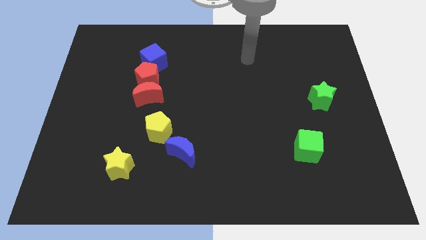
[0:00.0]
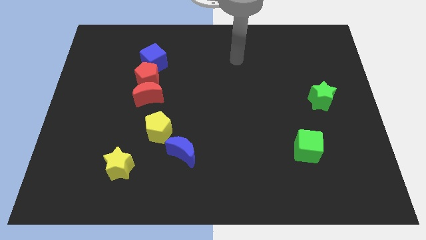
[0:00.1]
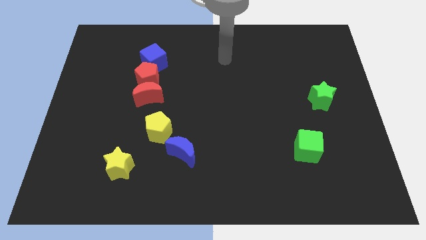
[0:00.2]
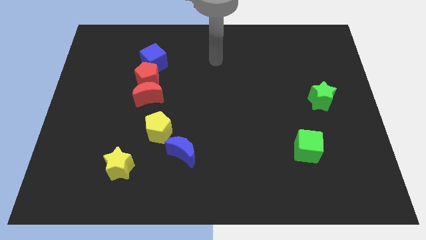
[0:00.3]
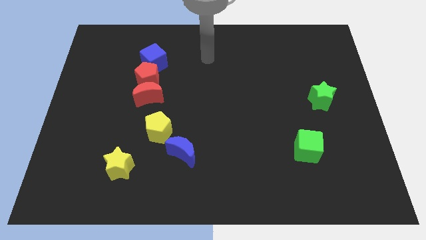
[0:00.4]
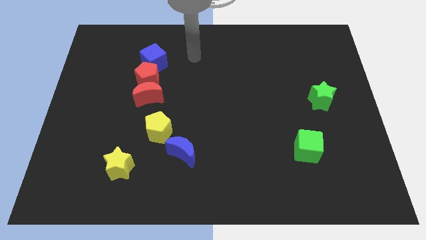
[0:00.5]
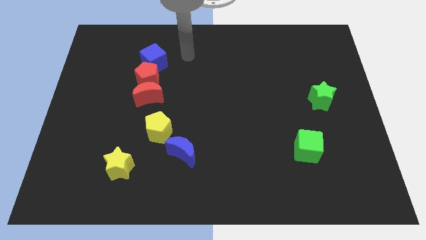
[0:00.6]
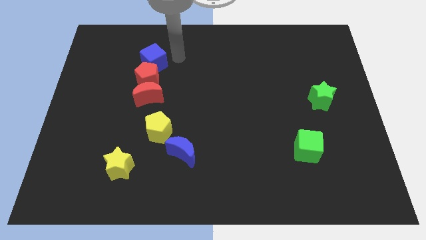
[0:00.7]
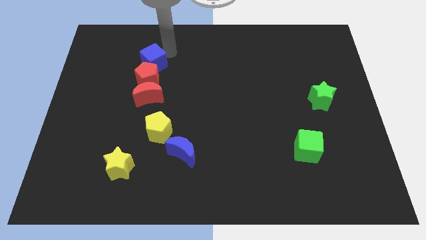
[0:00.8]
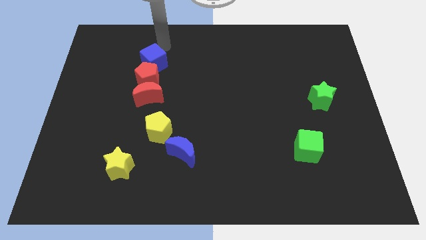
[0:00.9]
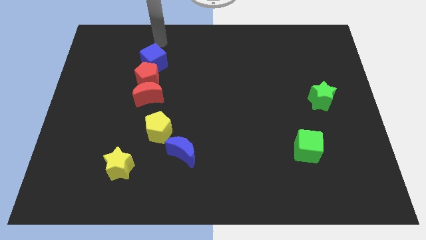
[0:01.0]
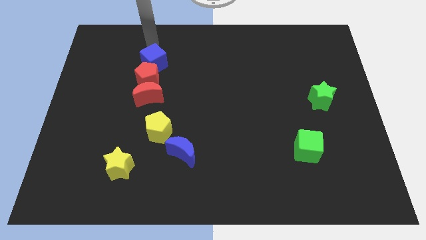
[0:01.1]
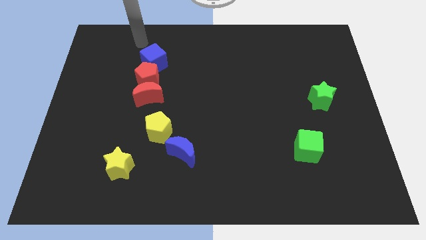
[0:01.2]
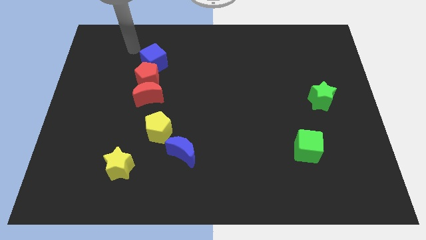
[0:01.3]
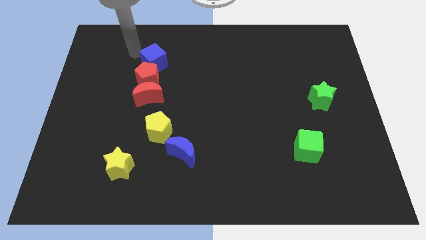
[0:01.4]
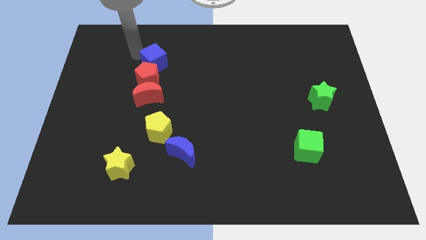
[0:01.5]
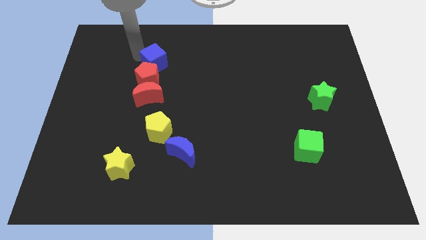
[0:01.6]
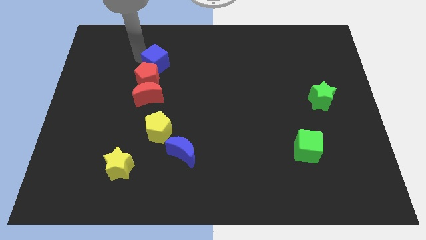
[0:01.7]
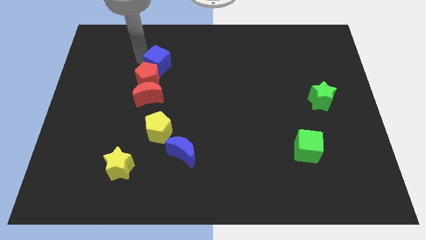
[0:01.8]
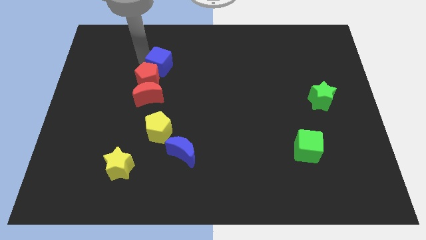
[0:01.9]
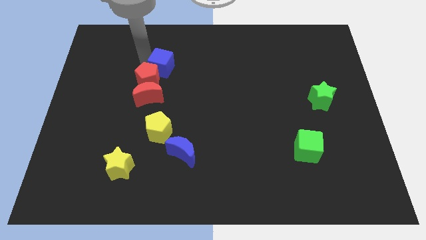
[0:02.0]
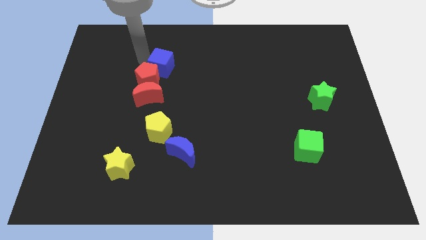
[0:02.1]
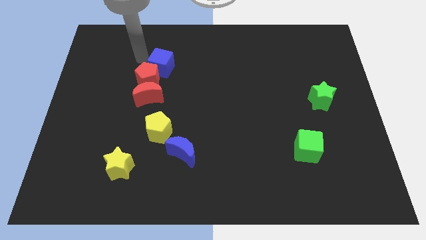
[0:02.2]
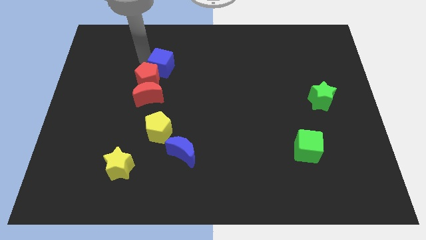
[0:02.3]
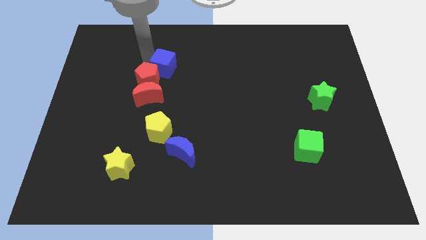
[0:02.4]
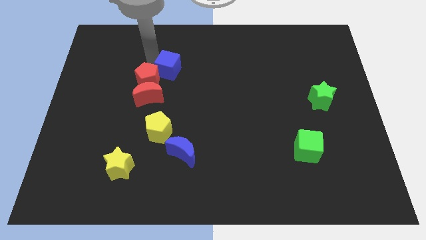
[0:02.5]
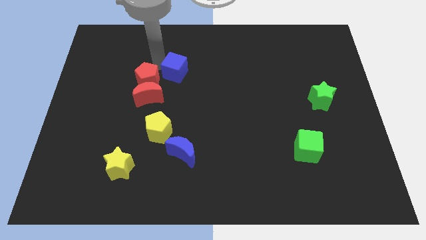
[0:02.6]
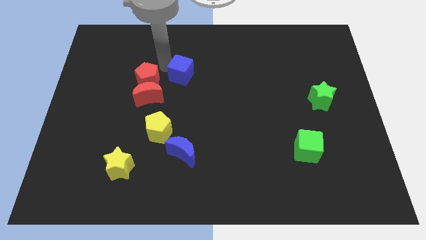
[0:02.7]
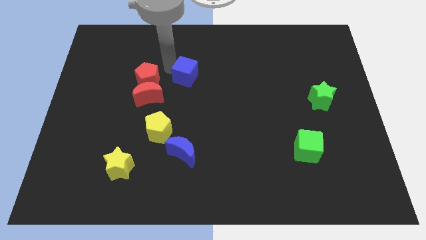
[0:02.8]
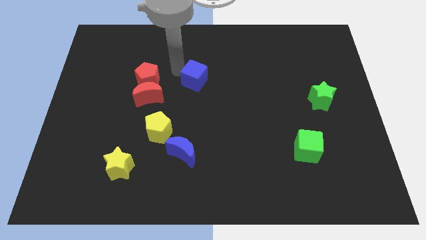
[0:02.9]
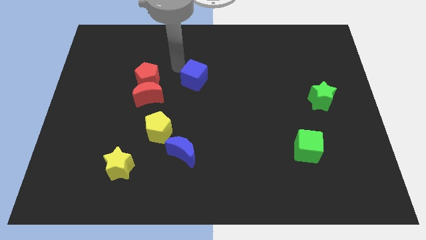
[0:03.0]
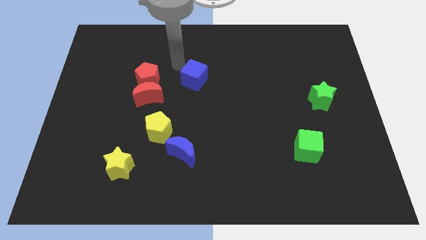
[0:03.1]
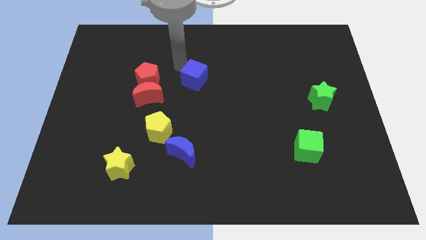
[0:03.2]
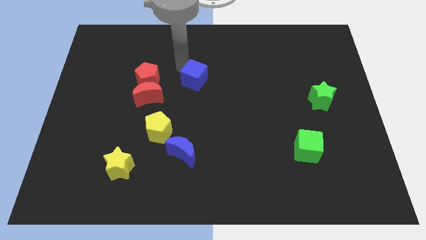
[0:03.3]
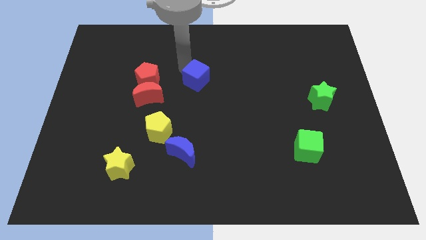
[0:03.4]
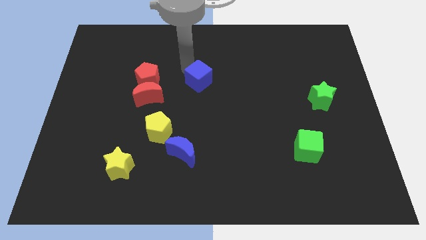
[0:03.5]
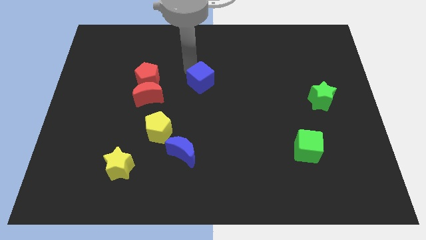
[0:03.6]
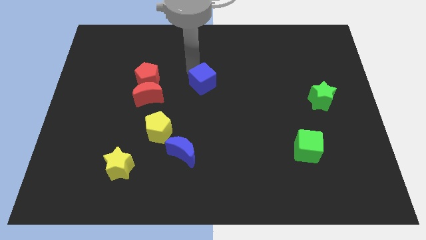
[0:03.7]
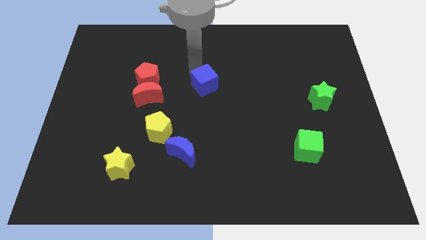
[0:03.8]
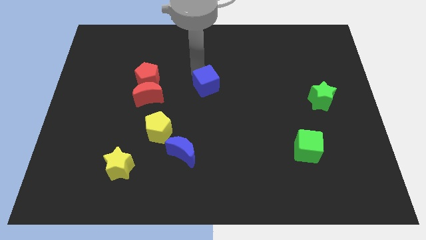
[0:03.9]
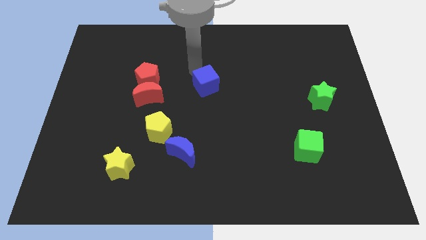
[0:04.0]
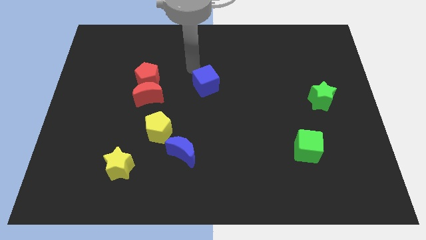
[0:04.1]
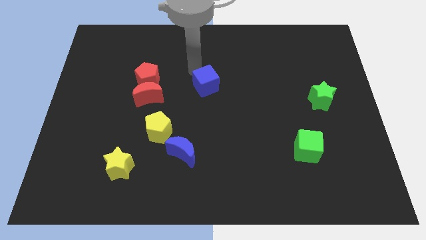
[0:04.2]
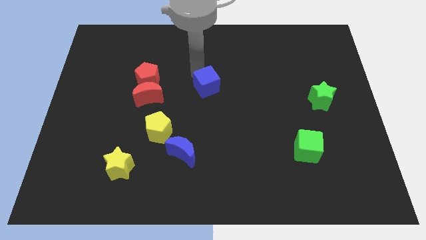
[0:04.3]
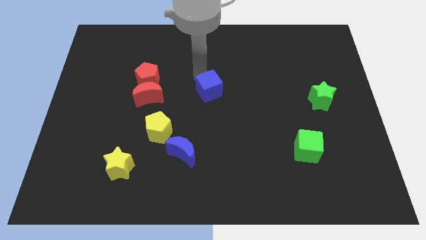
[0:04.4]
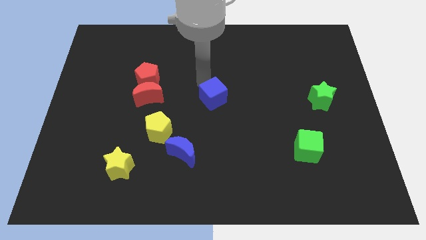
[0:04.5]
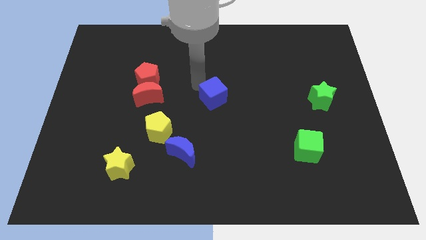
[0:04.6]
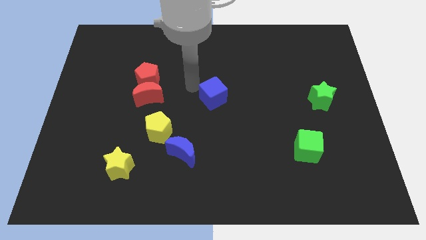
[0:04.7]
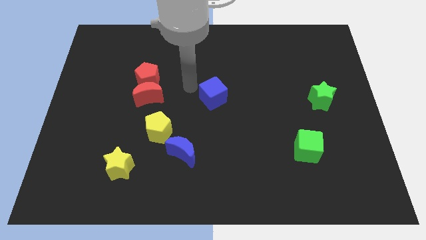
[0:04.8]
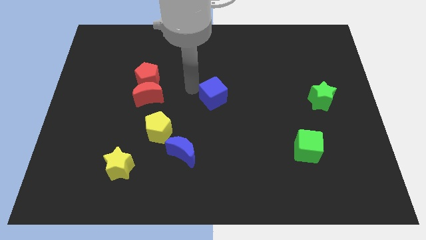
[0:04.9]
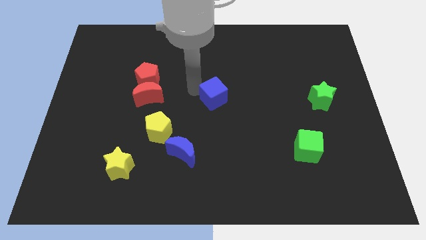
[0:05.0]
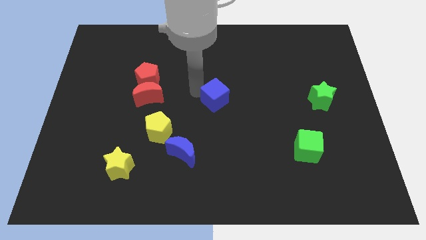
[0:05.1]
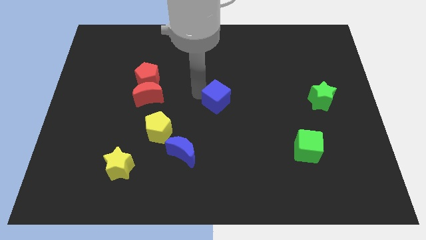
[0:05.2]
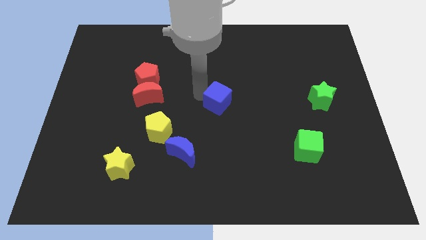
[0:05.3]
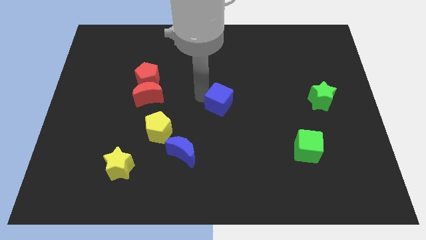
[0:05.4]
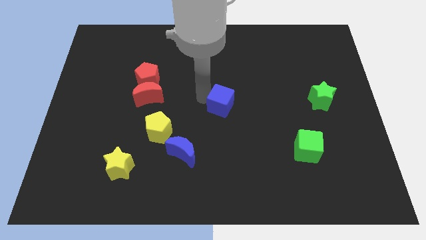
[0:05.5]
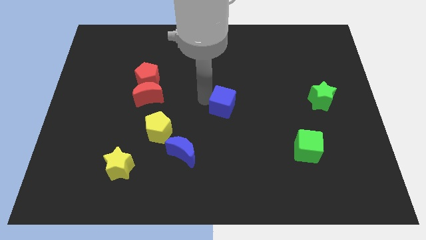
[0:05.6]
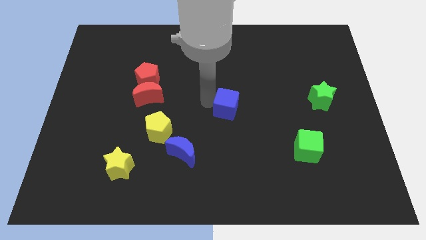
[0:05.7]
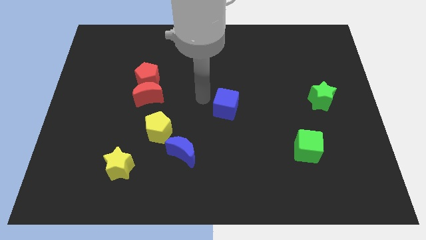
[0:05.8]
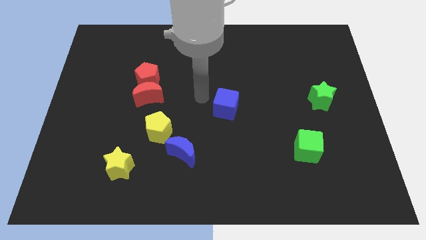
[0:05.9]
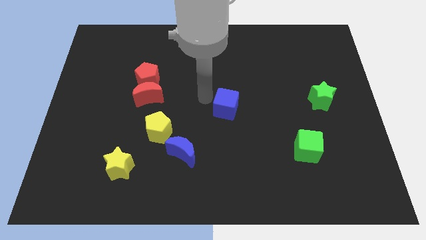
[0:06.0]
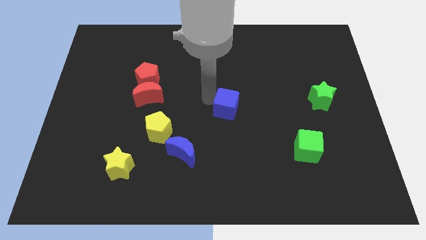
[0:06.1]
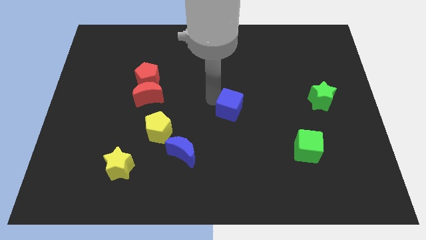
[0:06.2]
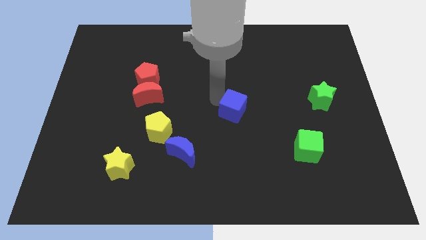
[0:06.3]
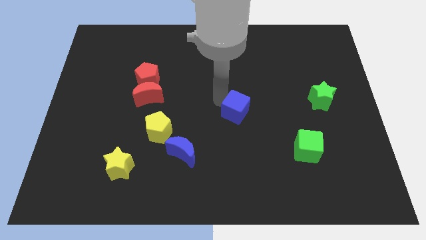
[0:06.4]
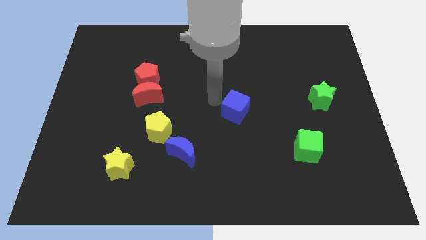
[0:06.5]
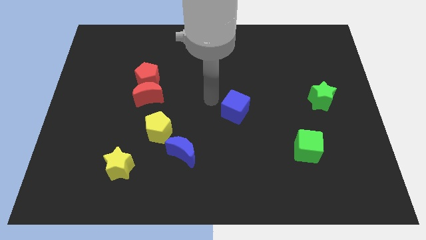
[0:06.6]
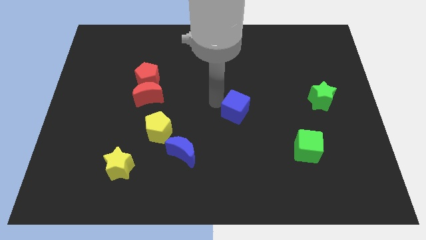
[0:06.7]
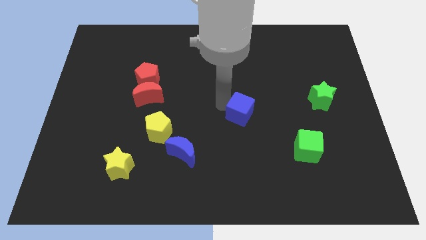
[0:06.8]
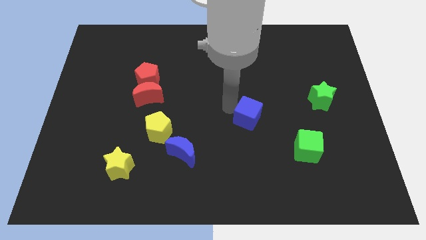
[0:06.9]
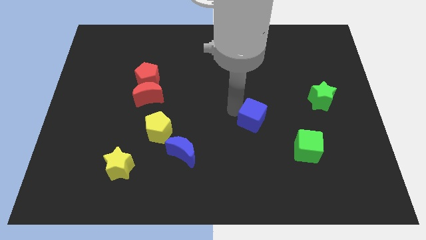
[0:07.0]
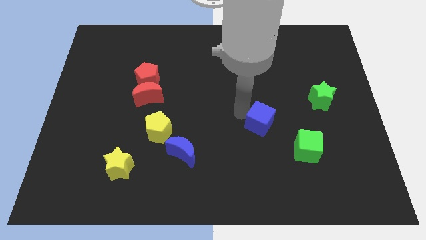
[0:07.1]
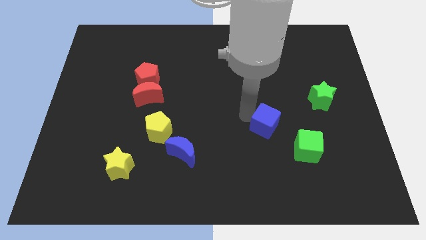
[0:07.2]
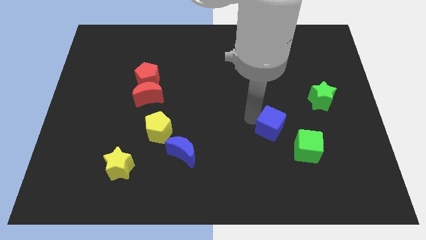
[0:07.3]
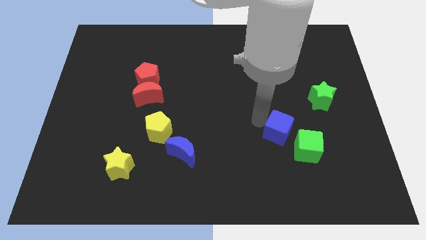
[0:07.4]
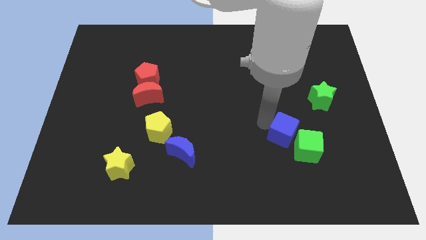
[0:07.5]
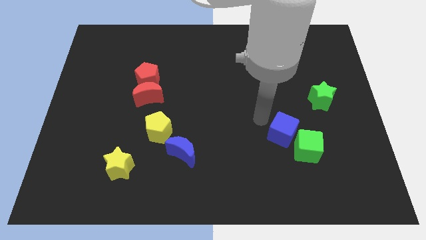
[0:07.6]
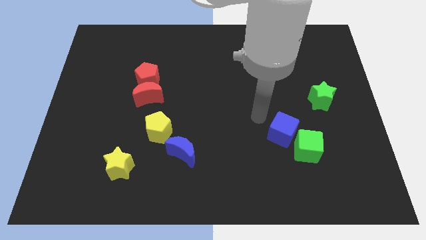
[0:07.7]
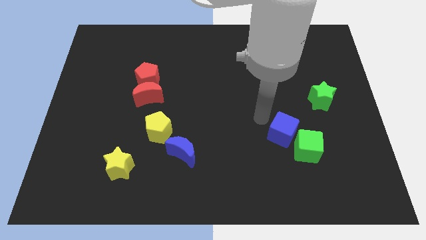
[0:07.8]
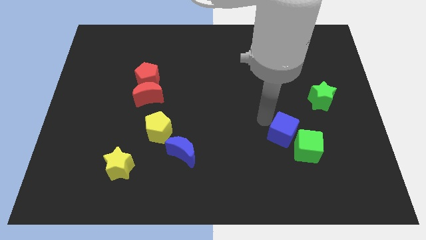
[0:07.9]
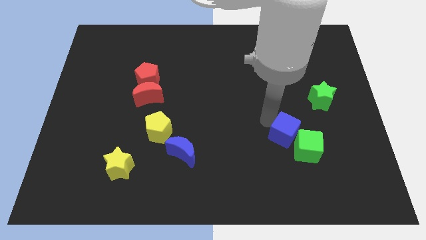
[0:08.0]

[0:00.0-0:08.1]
push the blue cube to the green cube
